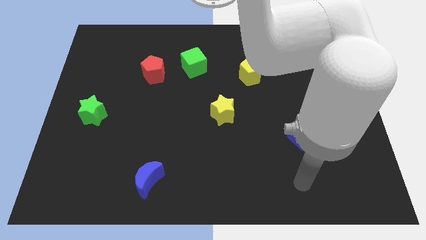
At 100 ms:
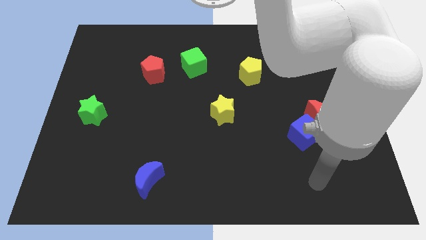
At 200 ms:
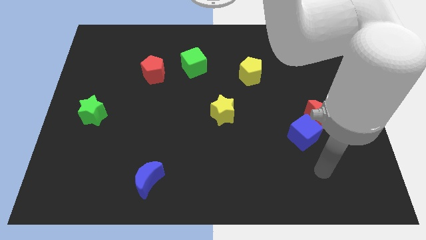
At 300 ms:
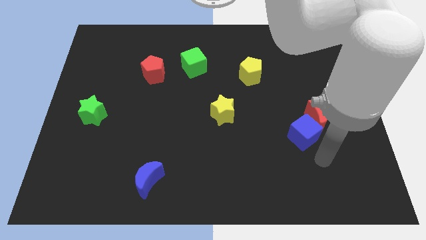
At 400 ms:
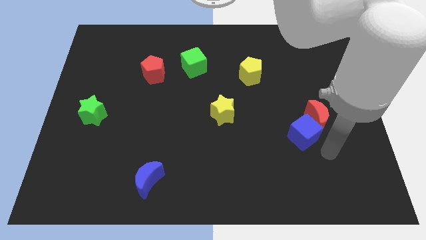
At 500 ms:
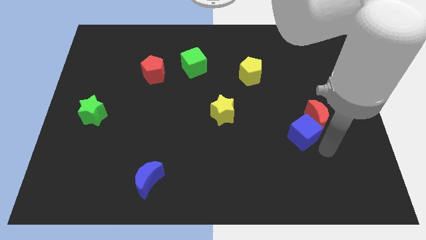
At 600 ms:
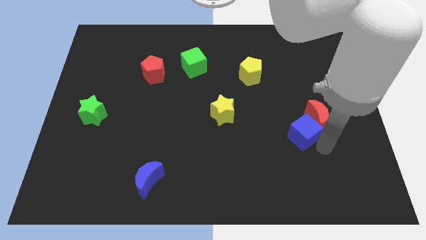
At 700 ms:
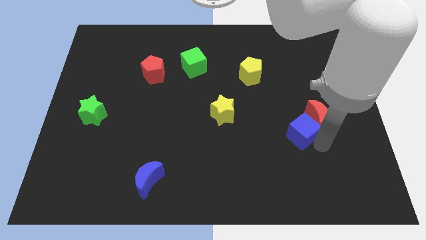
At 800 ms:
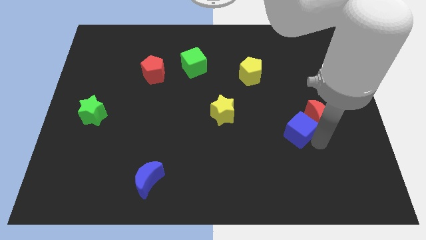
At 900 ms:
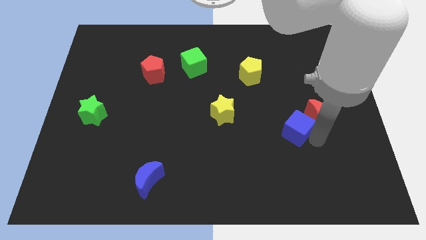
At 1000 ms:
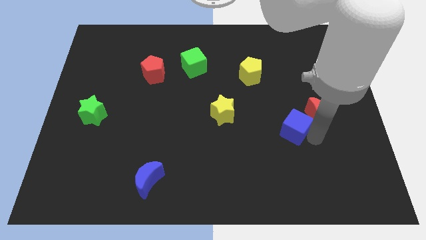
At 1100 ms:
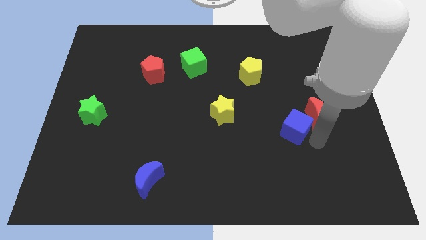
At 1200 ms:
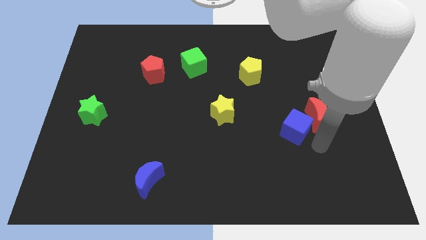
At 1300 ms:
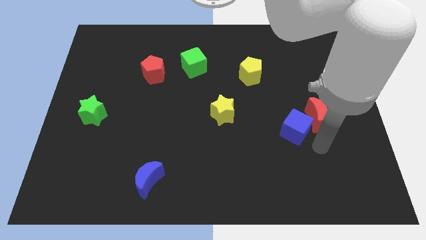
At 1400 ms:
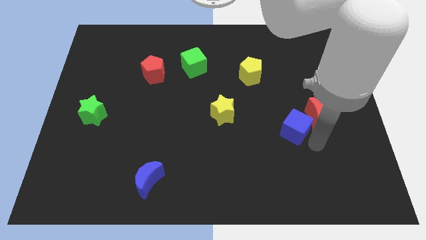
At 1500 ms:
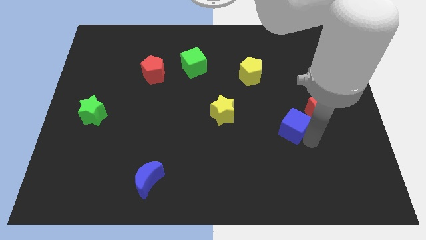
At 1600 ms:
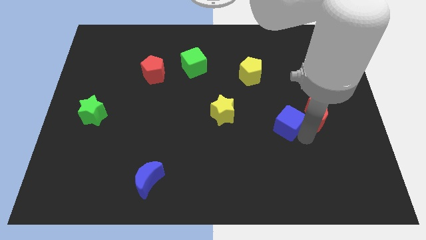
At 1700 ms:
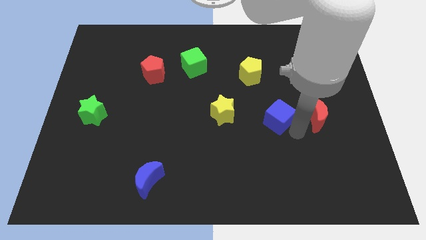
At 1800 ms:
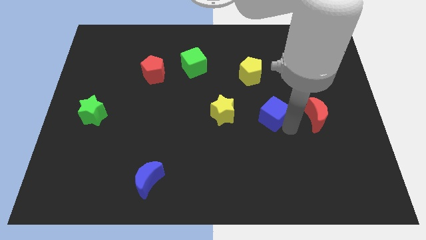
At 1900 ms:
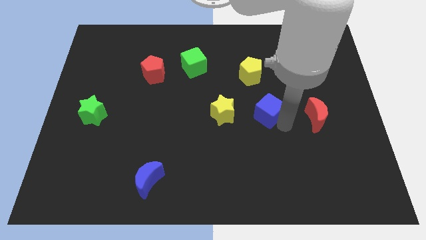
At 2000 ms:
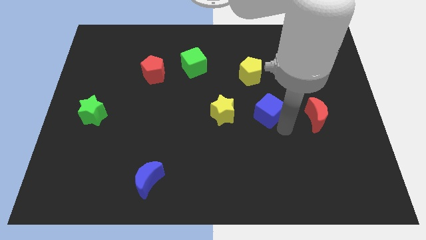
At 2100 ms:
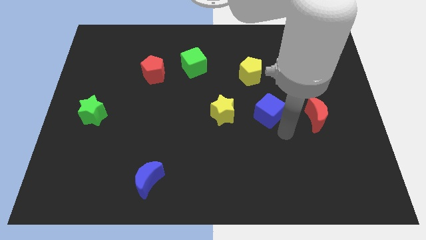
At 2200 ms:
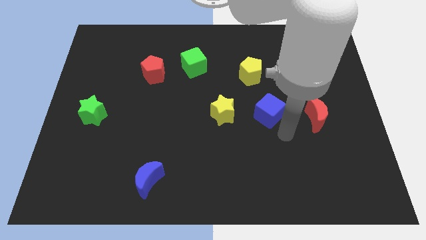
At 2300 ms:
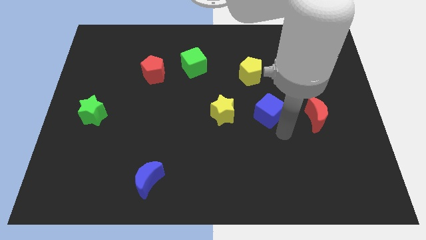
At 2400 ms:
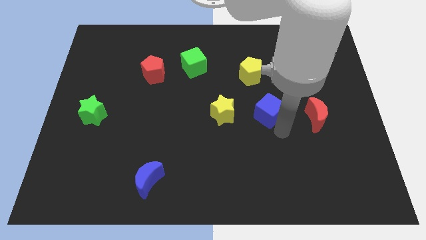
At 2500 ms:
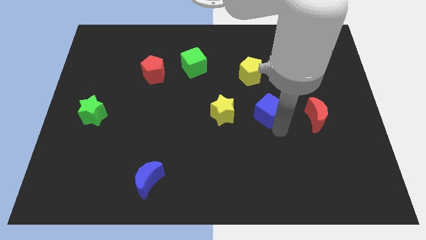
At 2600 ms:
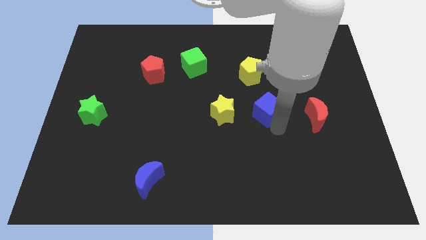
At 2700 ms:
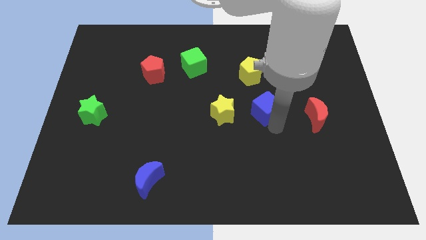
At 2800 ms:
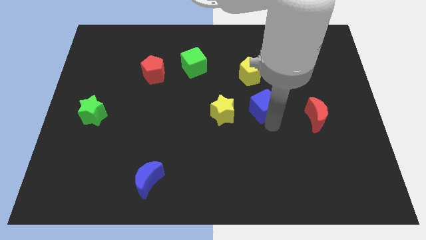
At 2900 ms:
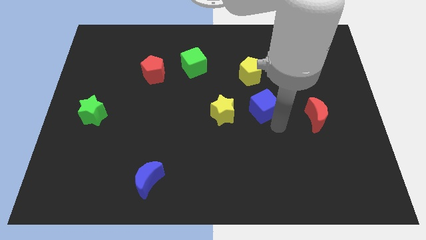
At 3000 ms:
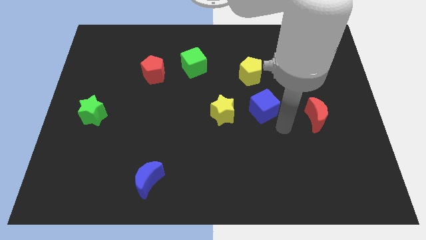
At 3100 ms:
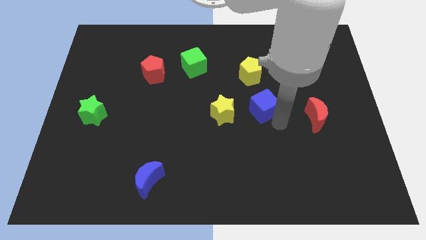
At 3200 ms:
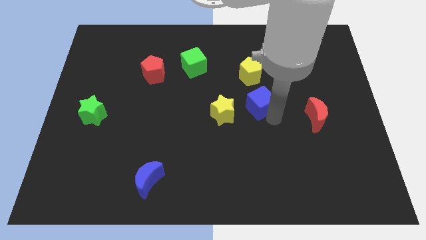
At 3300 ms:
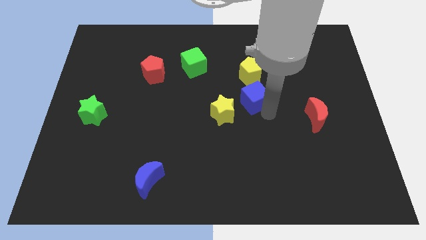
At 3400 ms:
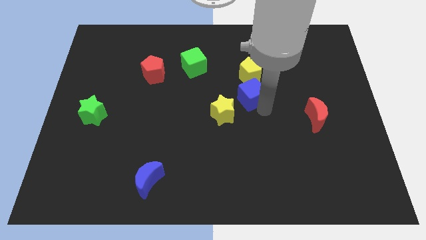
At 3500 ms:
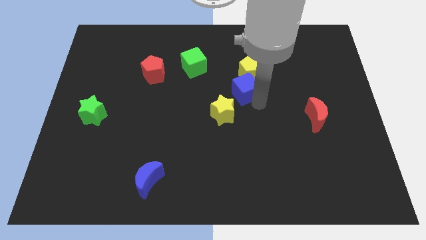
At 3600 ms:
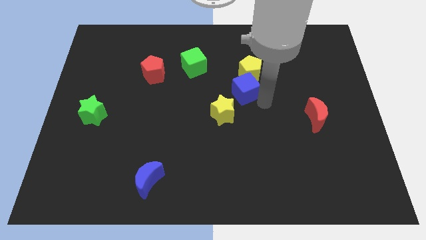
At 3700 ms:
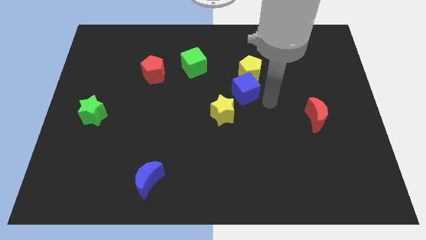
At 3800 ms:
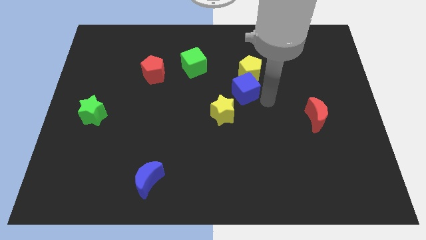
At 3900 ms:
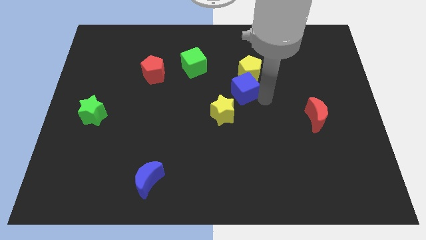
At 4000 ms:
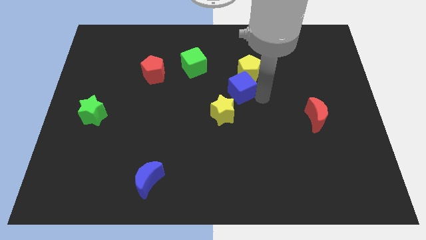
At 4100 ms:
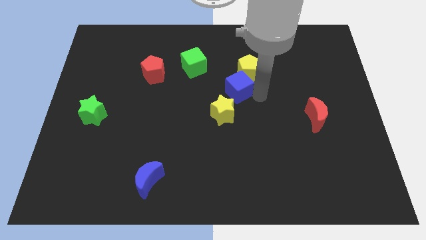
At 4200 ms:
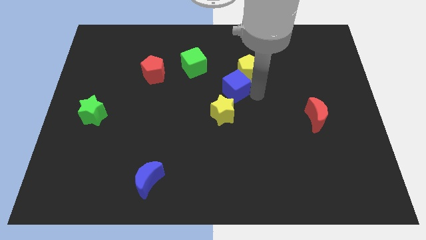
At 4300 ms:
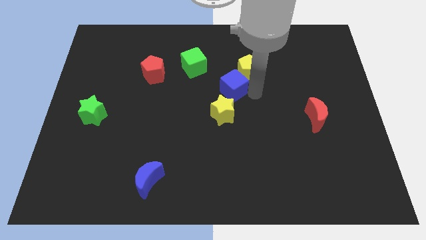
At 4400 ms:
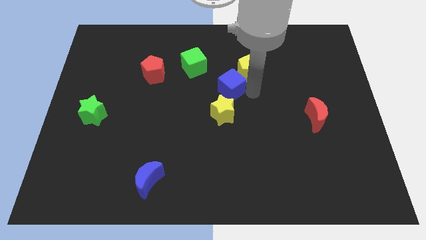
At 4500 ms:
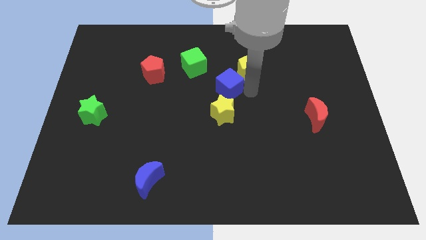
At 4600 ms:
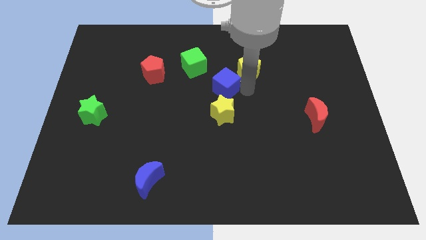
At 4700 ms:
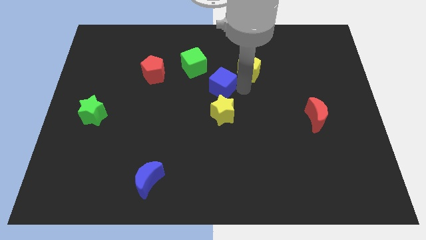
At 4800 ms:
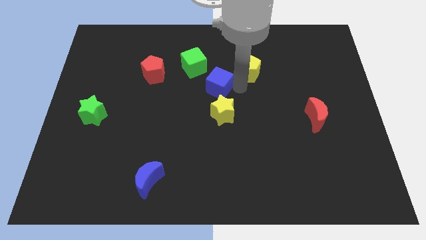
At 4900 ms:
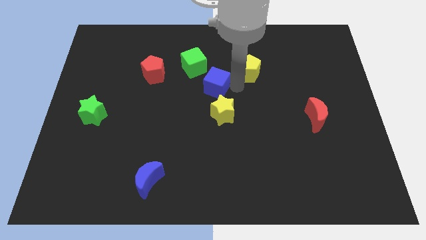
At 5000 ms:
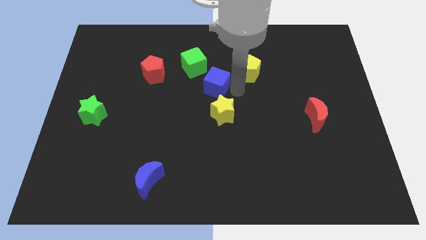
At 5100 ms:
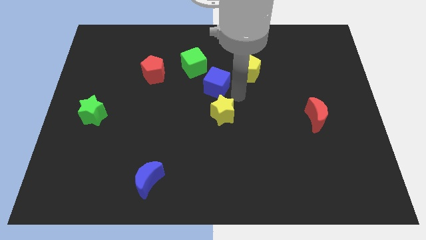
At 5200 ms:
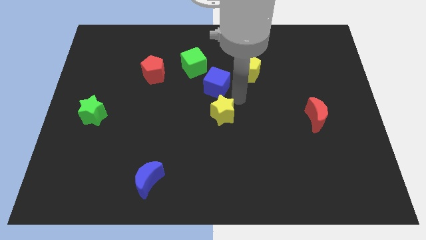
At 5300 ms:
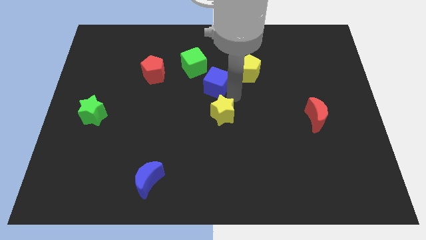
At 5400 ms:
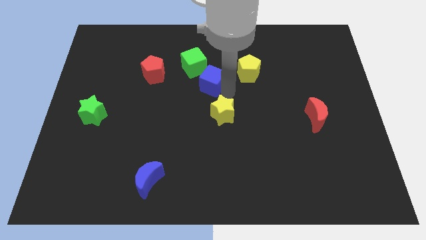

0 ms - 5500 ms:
push the blue cube just right of the red pentagon

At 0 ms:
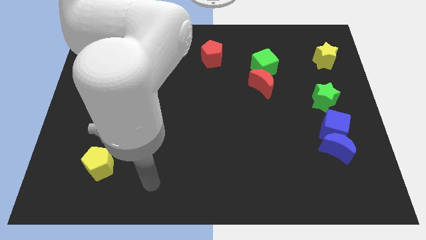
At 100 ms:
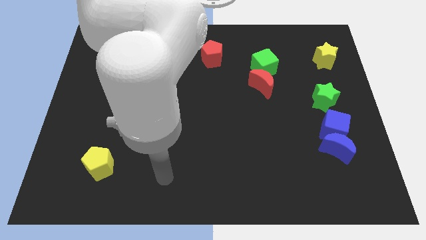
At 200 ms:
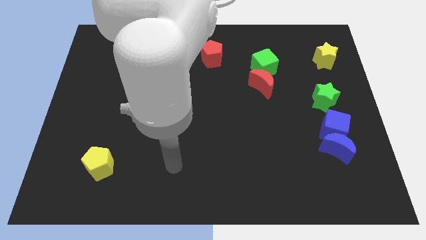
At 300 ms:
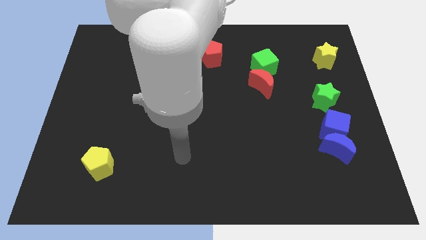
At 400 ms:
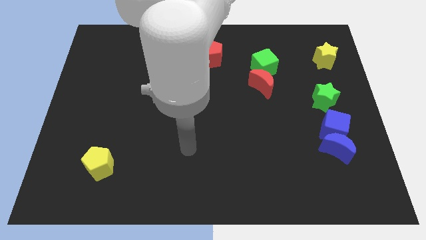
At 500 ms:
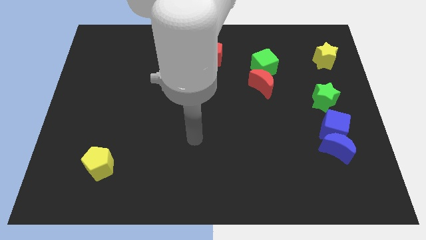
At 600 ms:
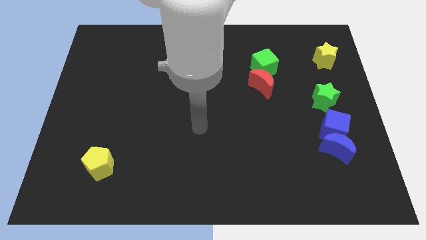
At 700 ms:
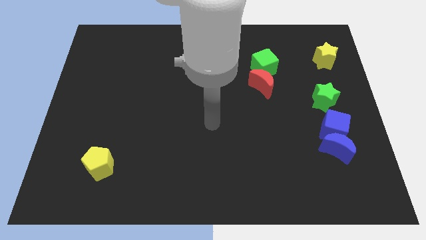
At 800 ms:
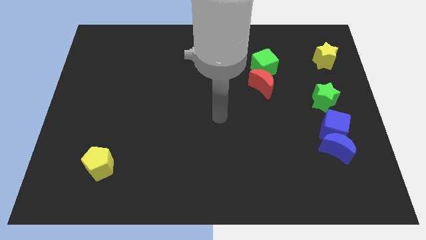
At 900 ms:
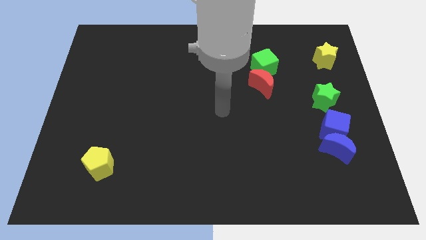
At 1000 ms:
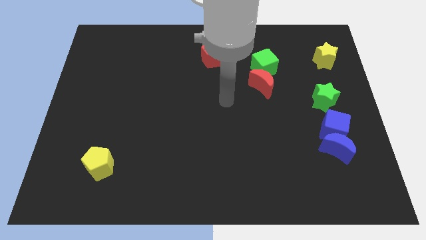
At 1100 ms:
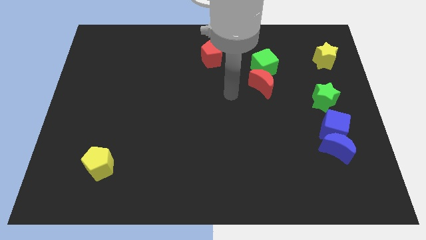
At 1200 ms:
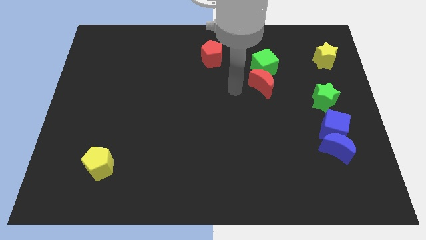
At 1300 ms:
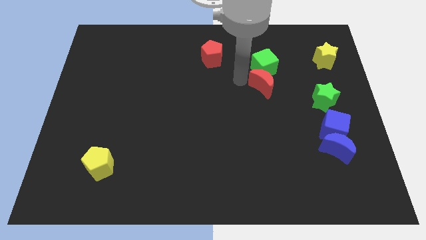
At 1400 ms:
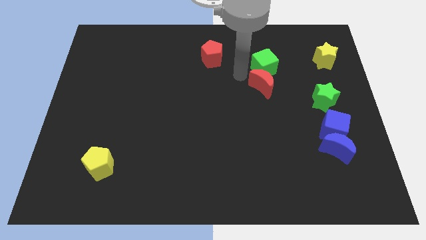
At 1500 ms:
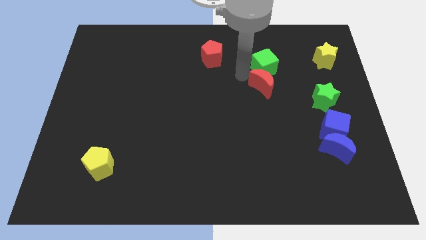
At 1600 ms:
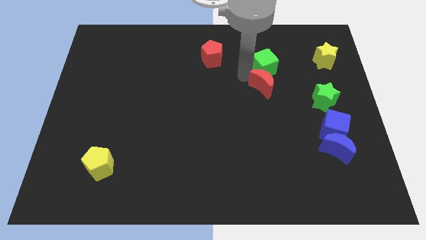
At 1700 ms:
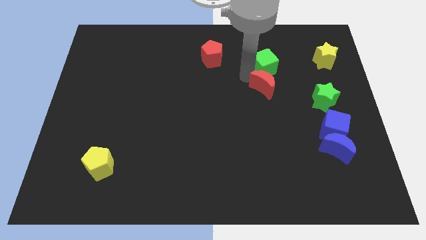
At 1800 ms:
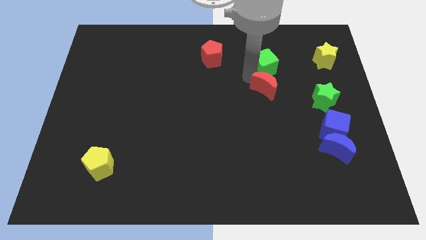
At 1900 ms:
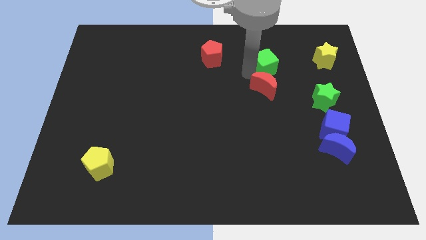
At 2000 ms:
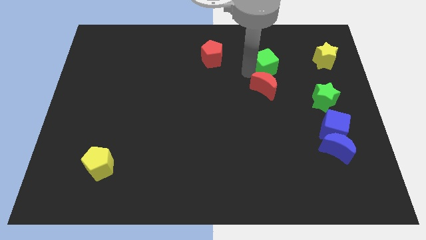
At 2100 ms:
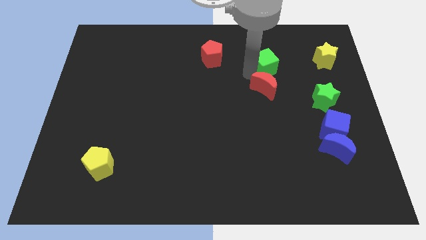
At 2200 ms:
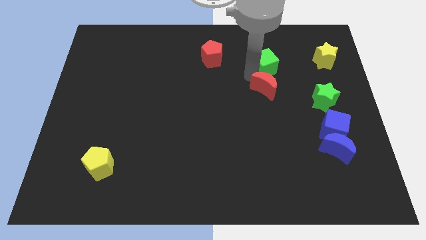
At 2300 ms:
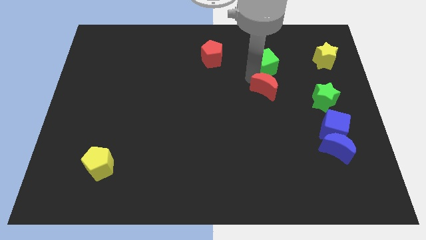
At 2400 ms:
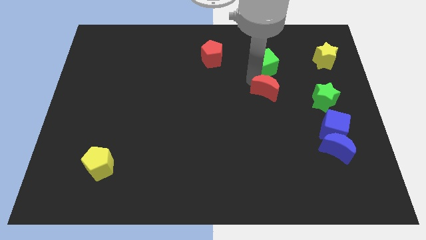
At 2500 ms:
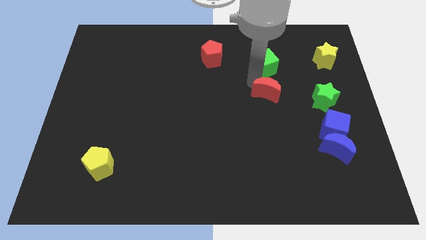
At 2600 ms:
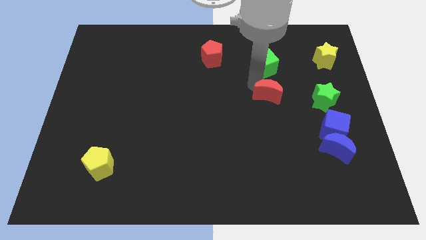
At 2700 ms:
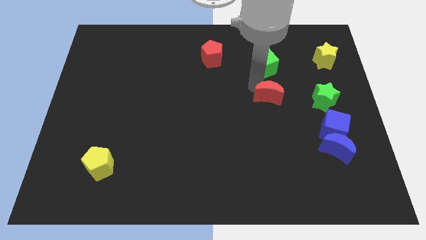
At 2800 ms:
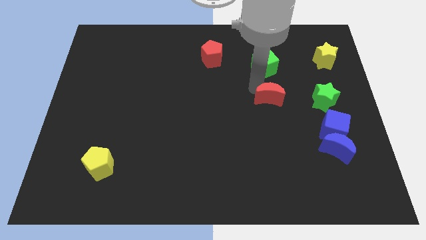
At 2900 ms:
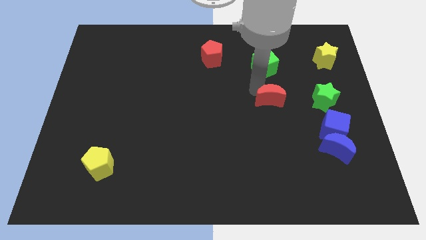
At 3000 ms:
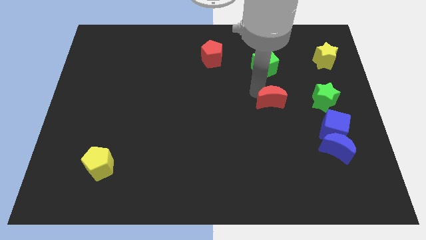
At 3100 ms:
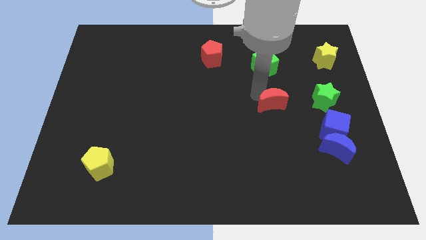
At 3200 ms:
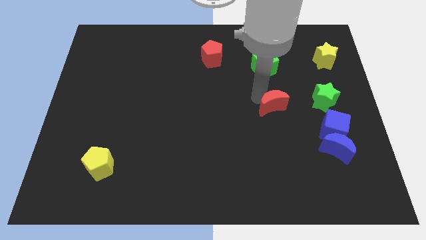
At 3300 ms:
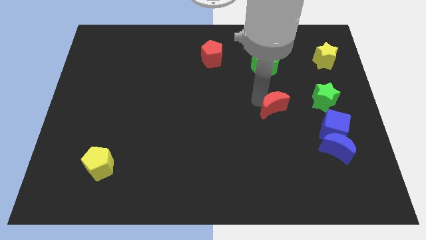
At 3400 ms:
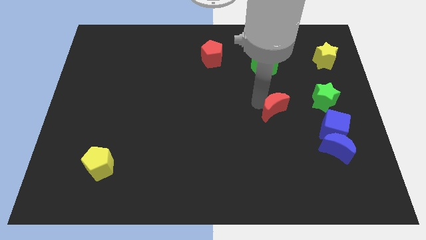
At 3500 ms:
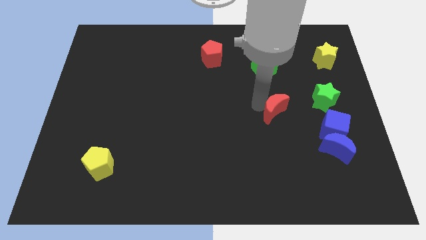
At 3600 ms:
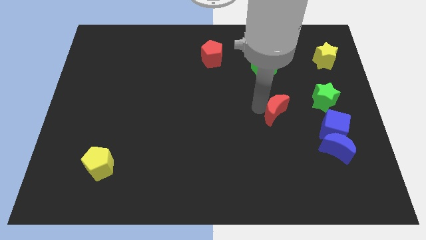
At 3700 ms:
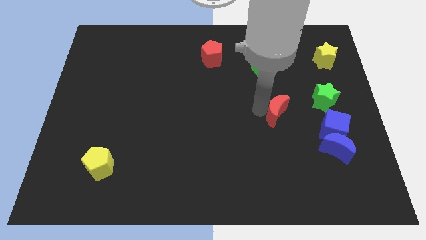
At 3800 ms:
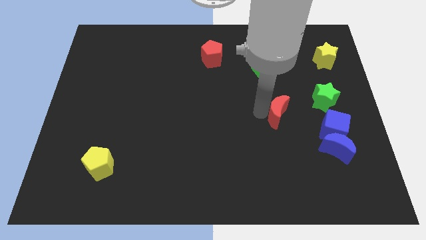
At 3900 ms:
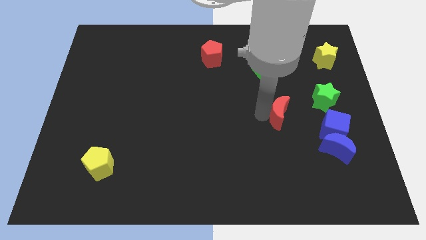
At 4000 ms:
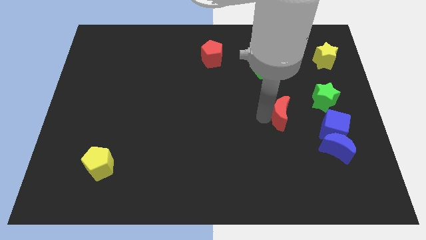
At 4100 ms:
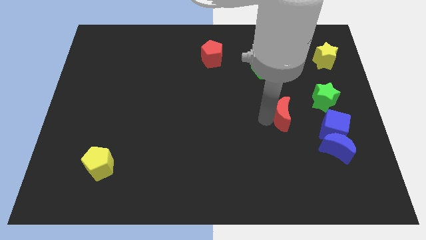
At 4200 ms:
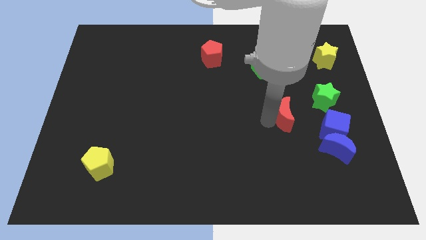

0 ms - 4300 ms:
move the red moon diagonally down and to the left of the green star
